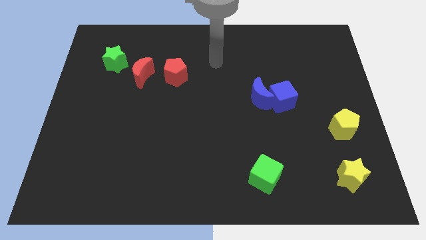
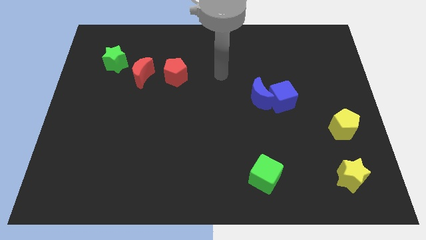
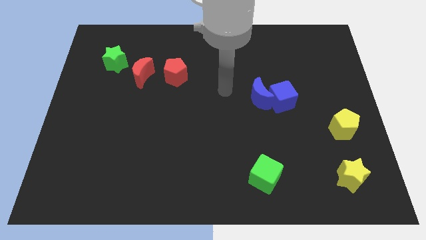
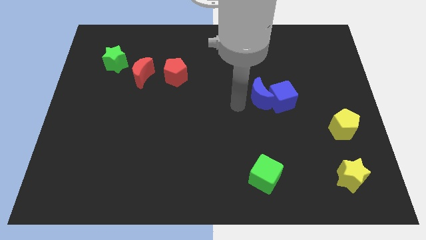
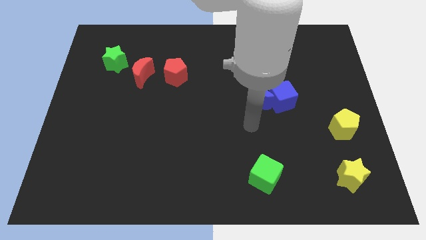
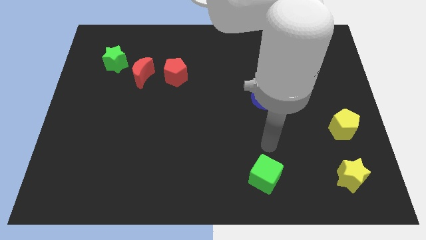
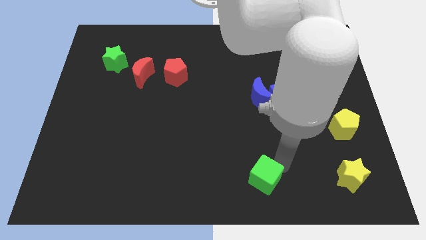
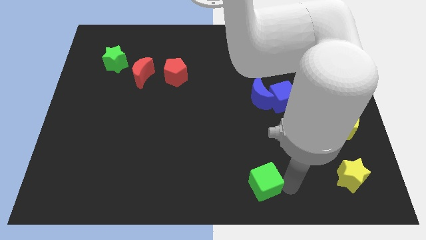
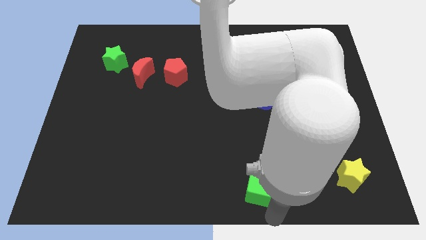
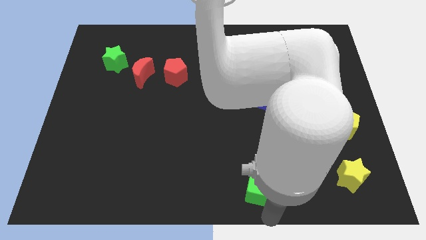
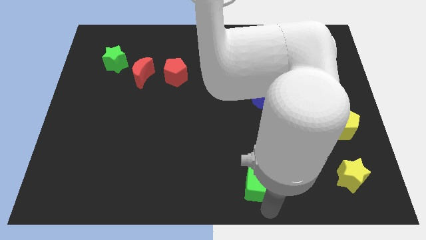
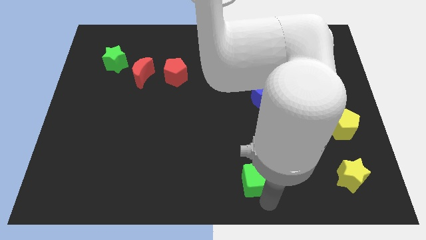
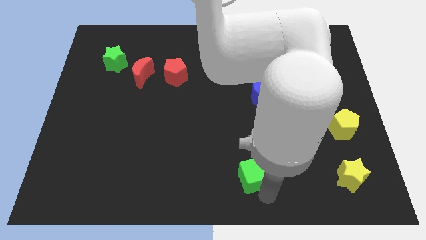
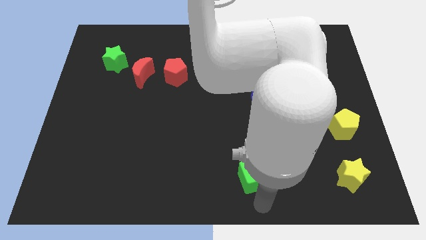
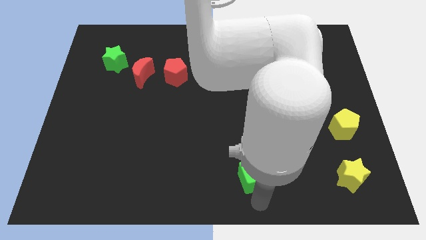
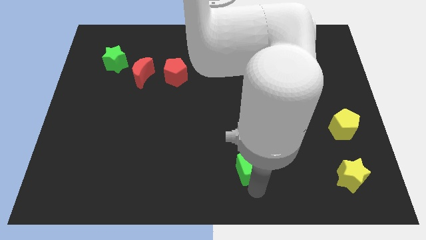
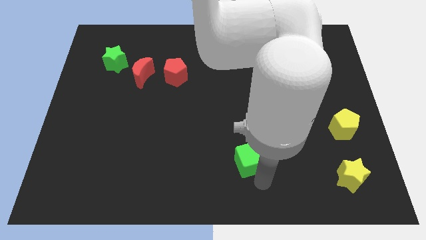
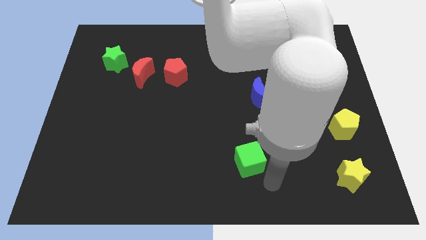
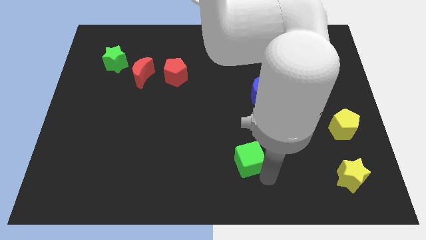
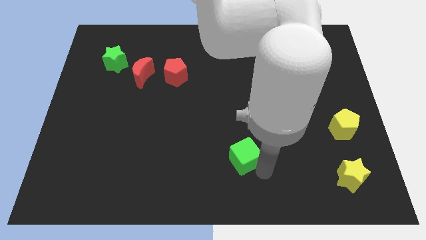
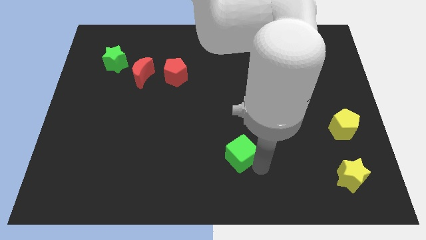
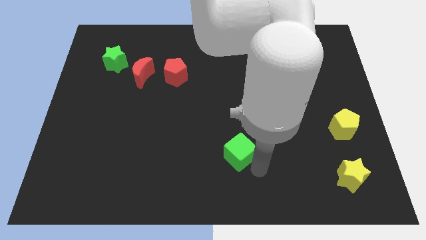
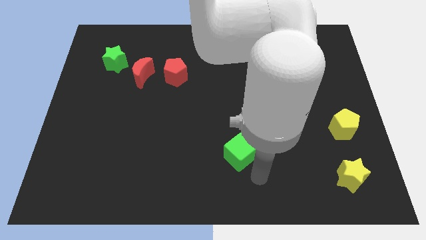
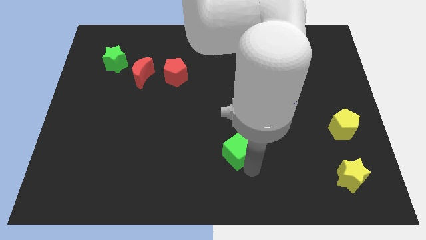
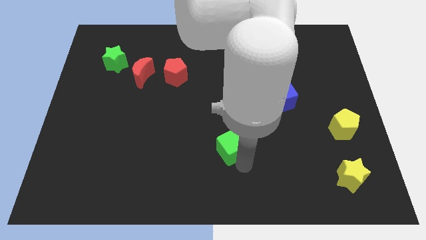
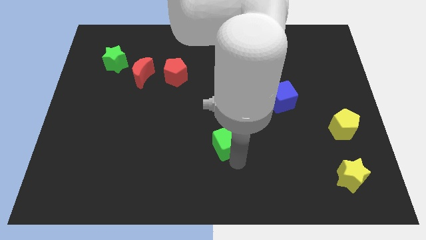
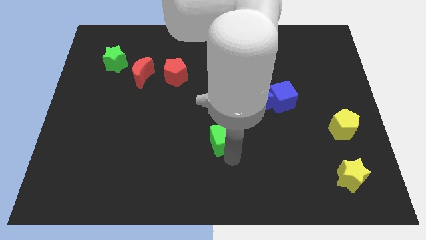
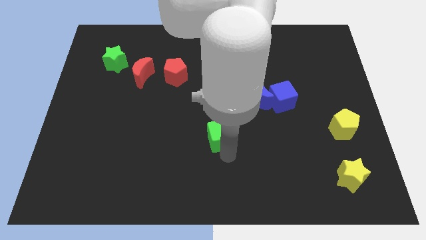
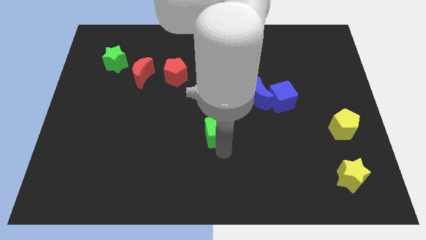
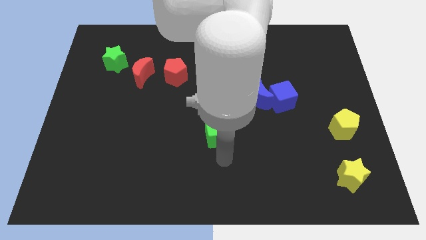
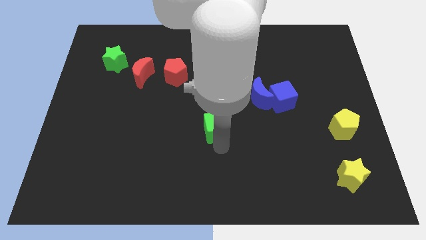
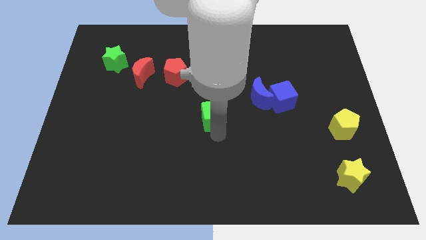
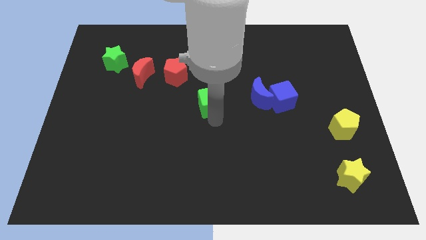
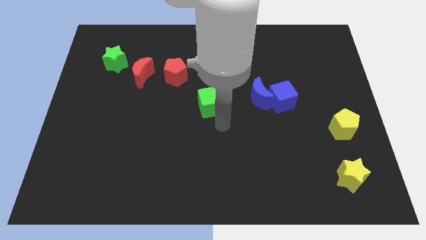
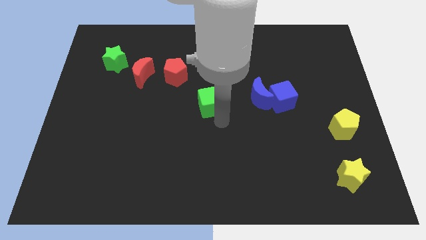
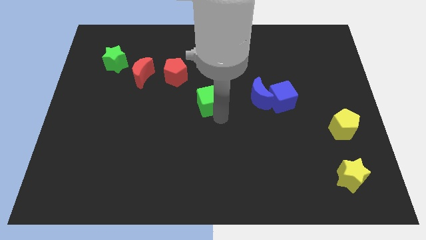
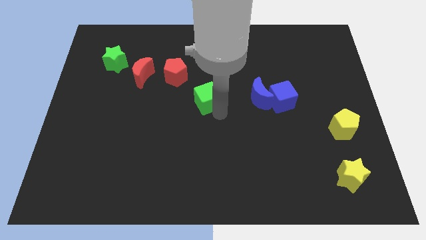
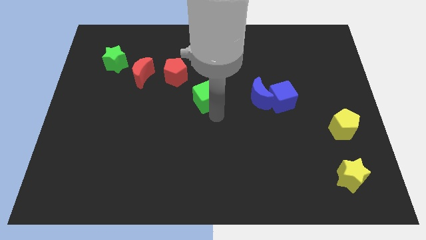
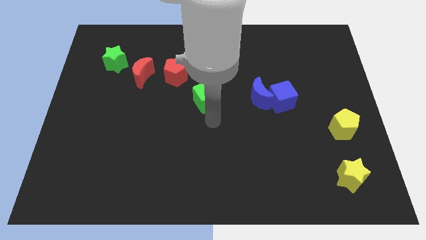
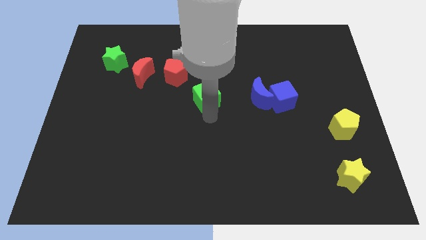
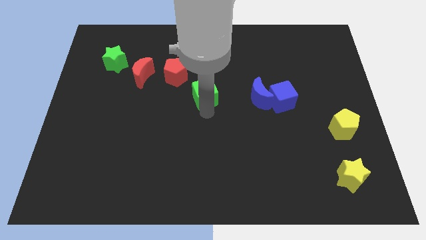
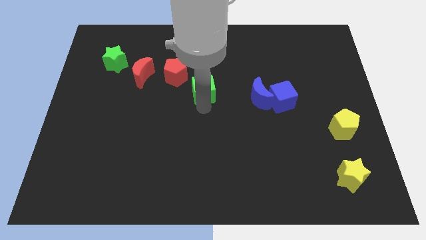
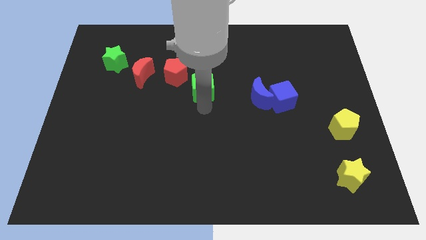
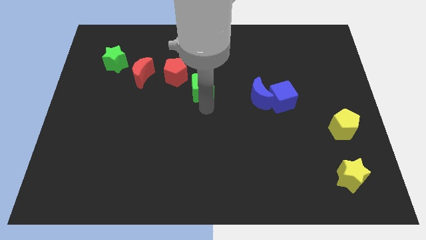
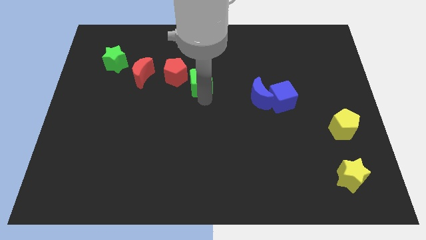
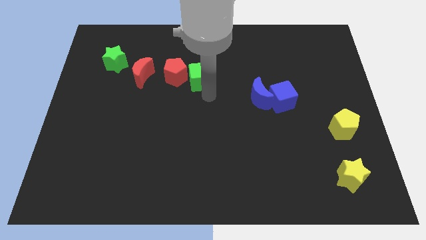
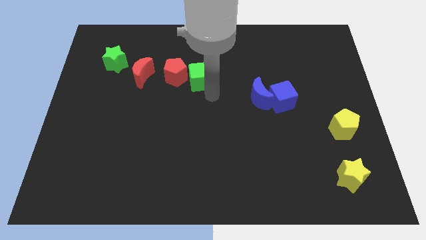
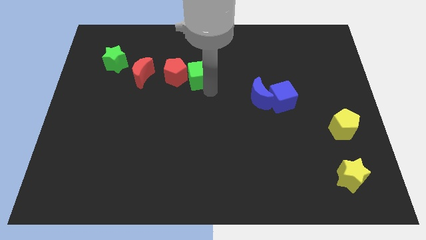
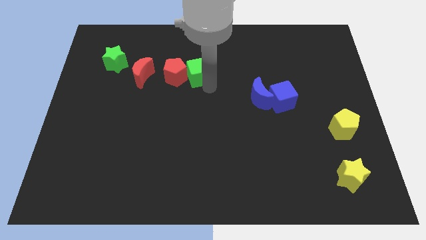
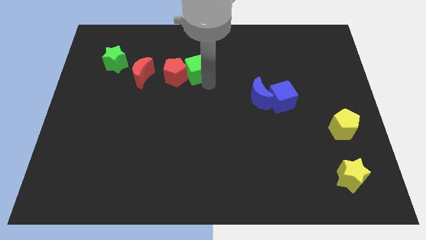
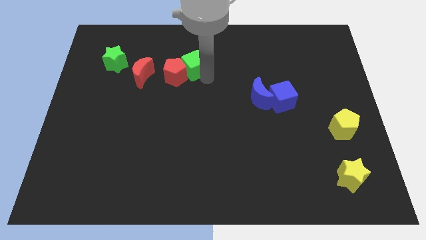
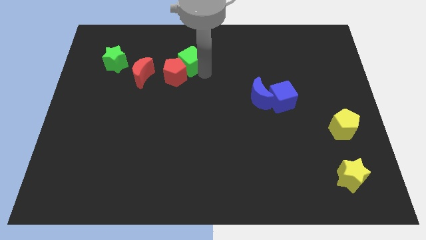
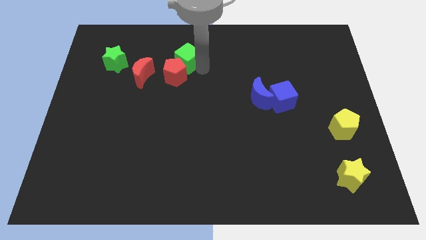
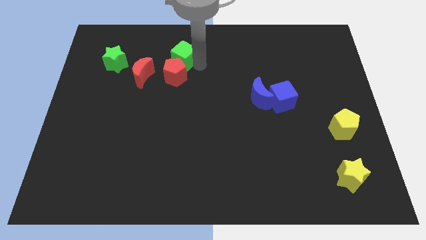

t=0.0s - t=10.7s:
push the green cube to the top right of the red moon

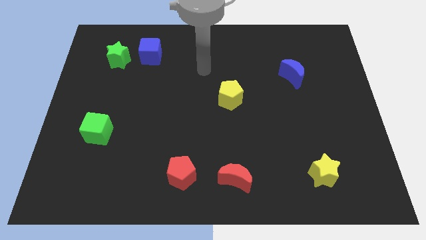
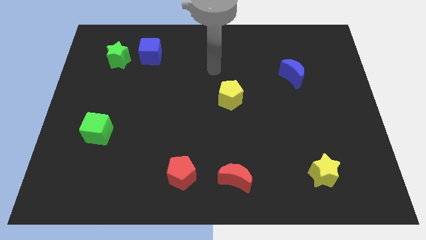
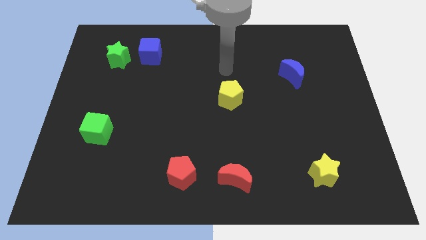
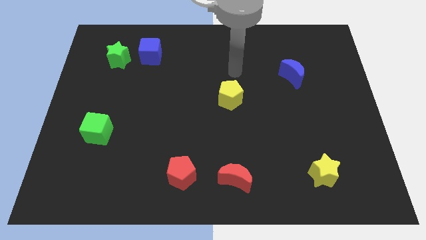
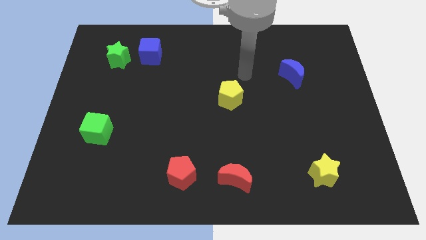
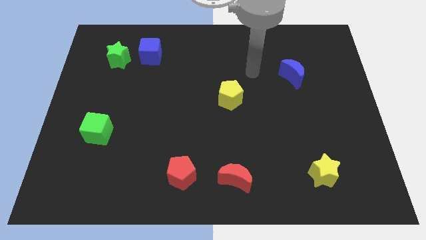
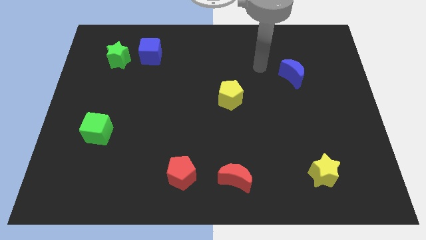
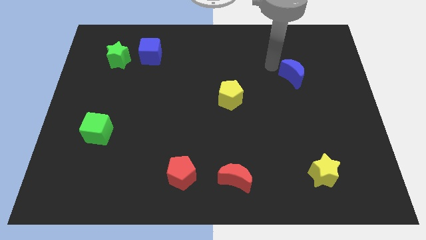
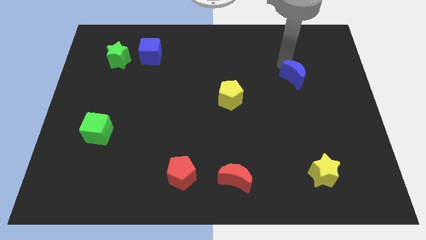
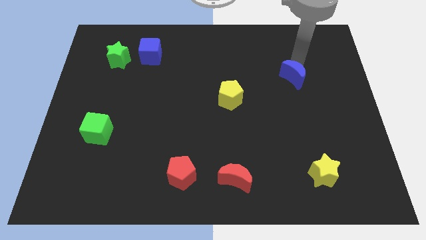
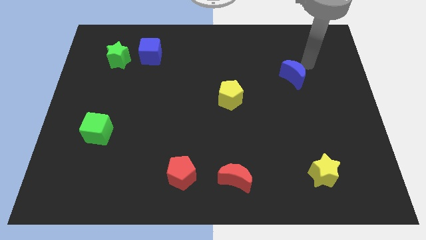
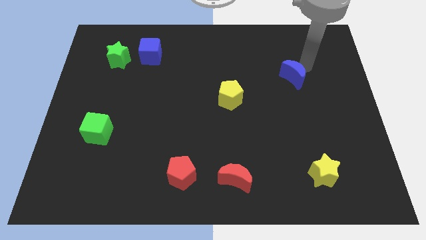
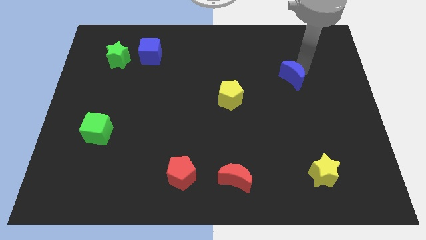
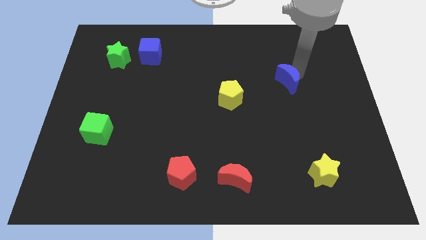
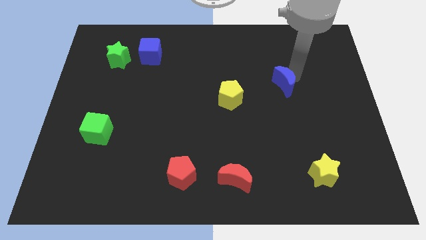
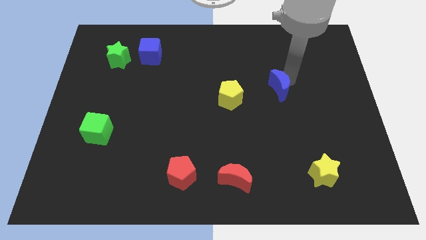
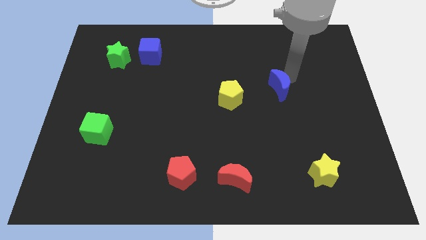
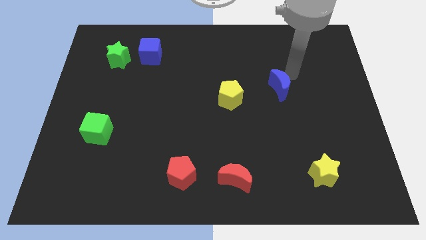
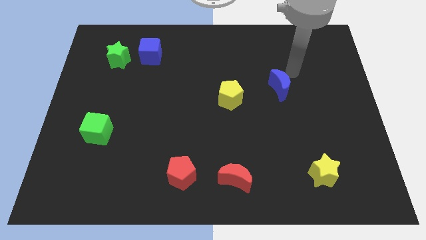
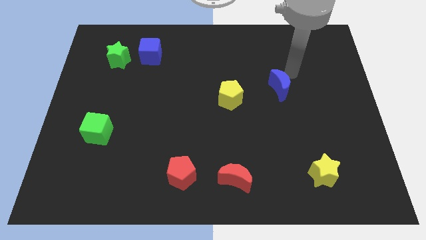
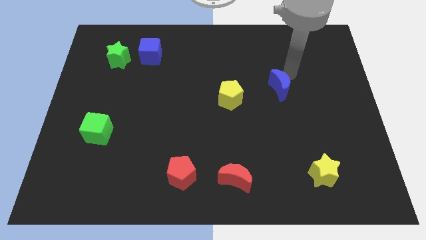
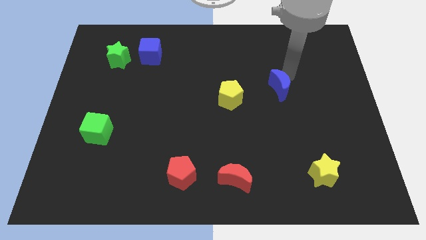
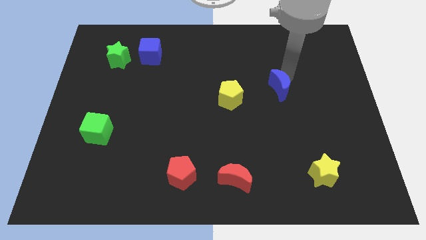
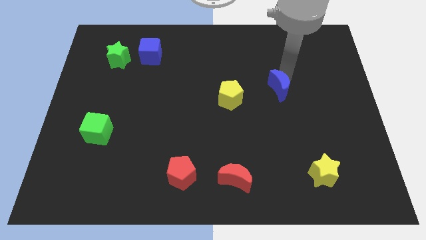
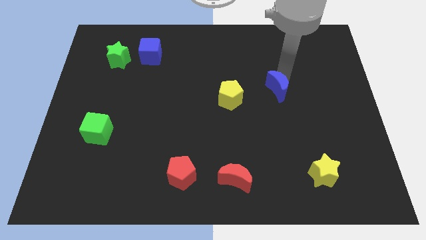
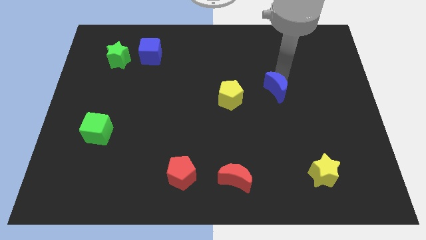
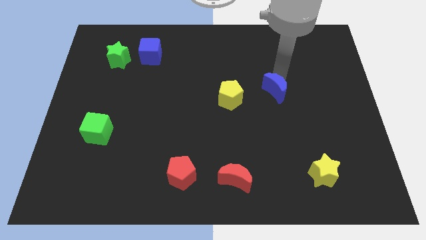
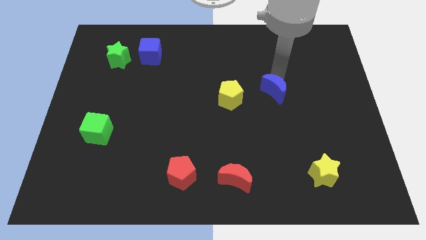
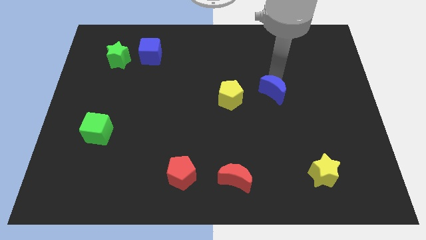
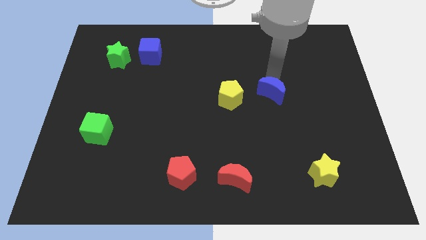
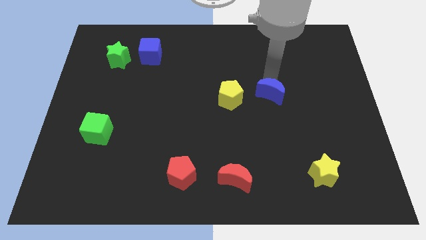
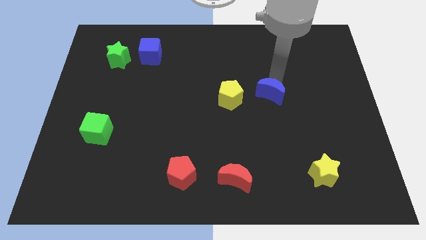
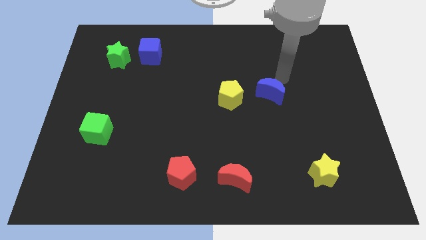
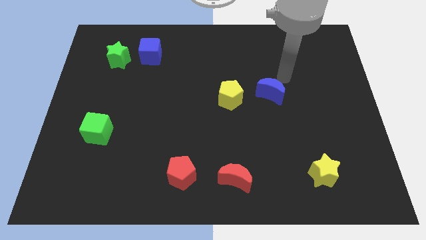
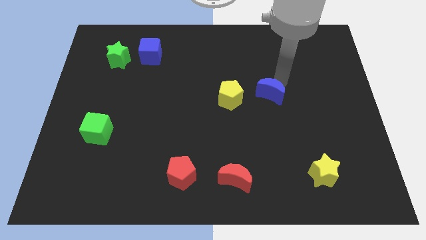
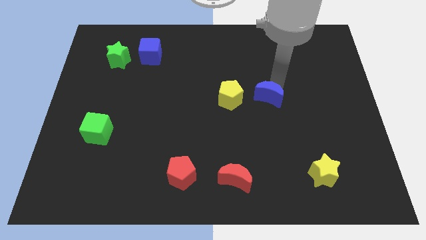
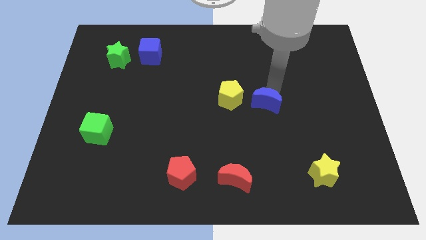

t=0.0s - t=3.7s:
move the blue moon to the bottom right side of the yellow pentagon
